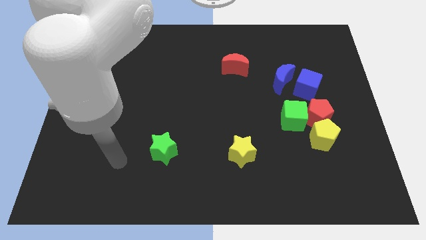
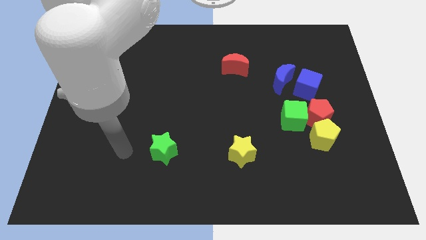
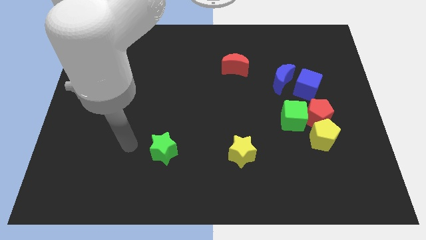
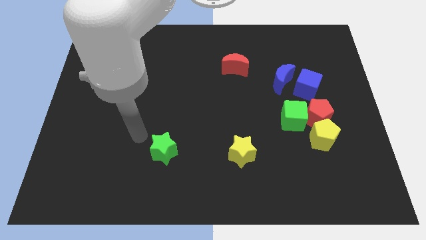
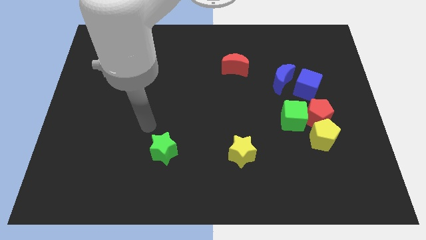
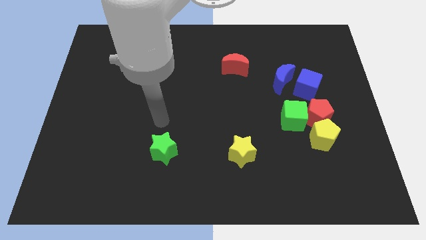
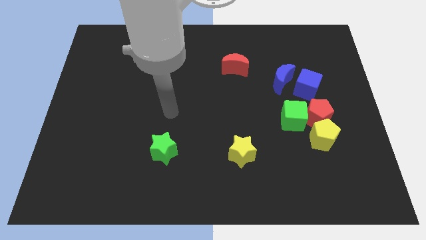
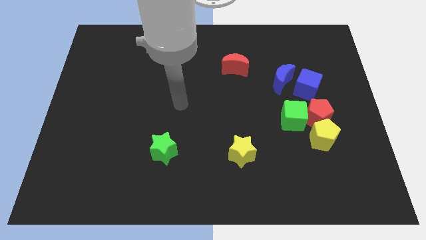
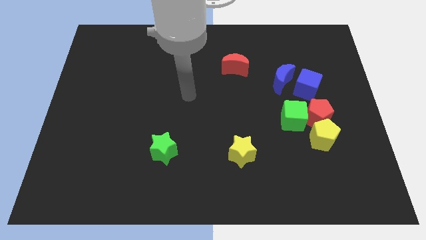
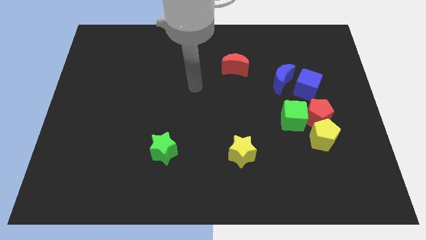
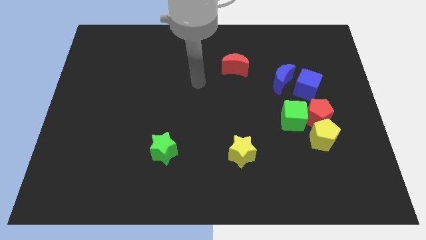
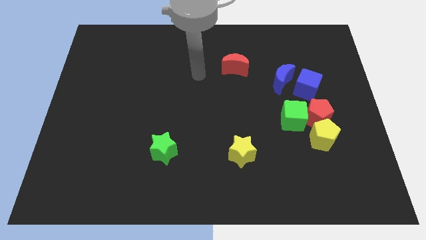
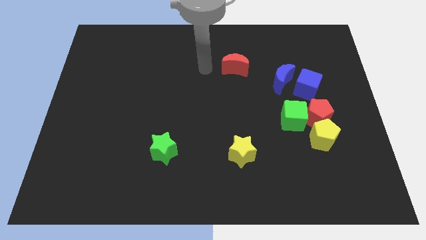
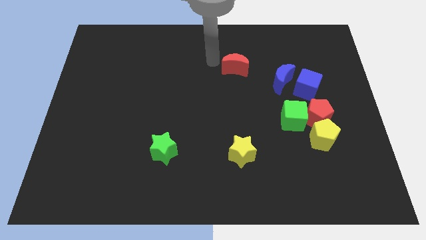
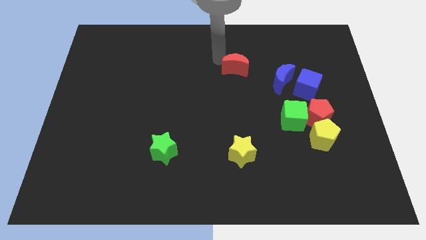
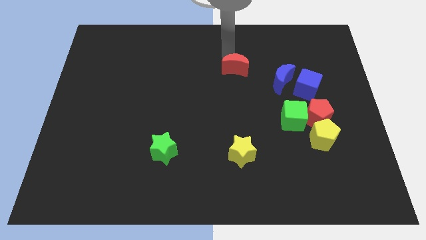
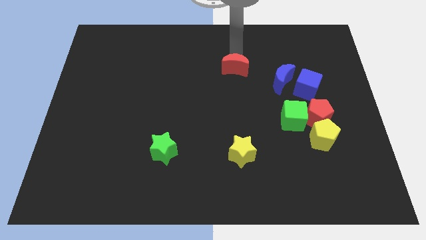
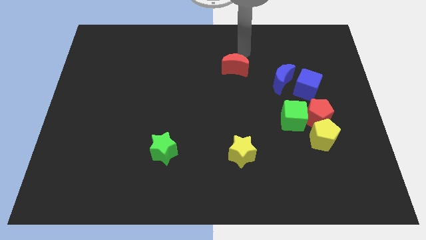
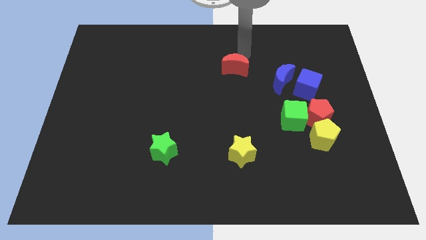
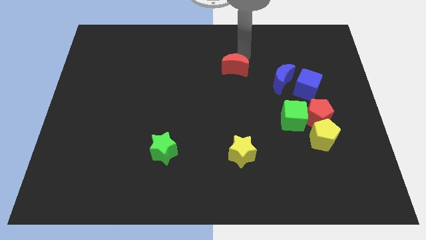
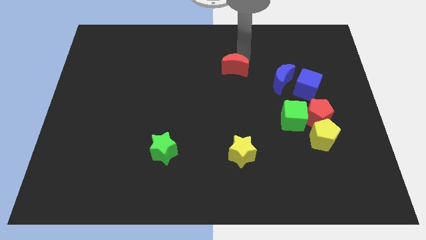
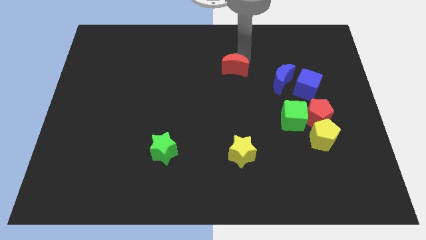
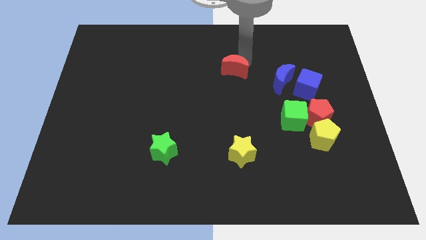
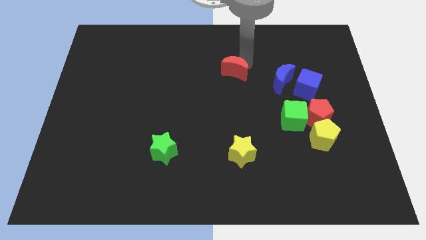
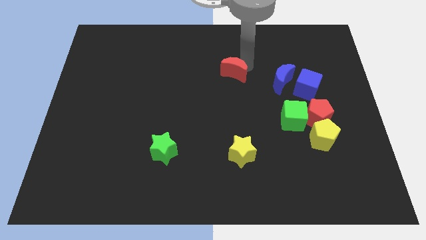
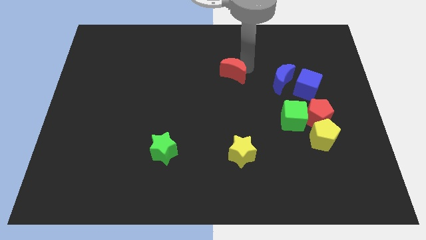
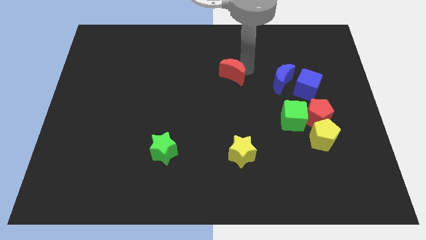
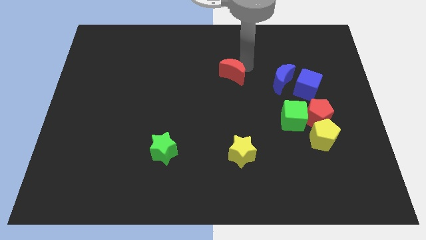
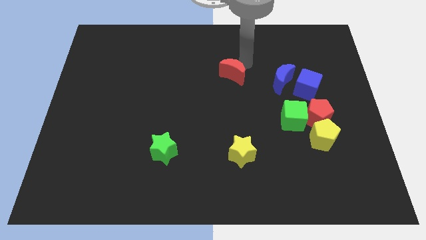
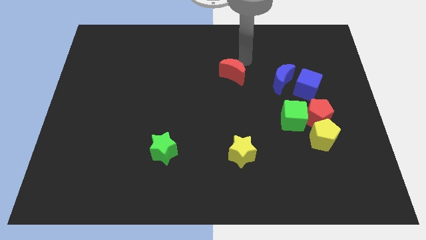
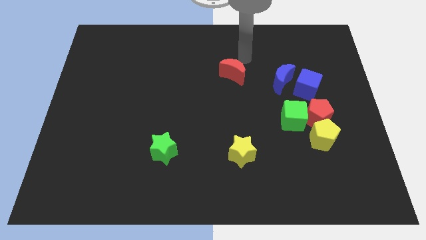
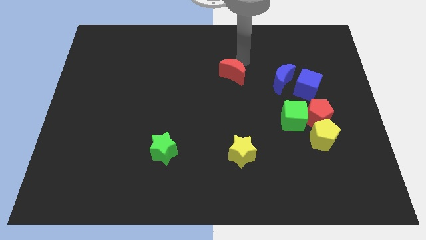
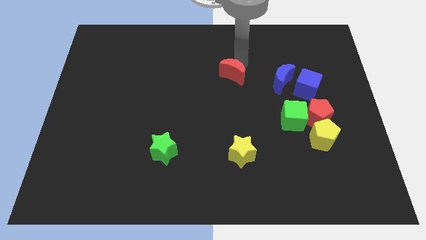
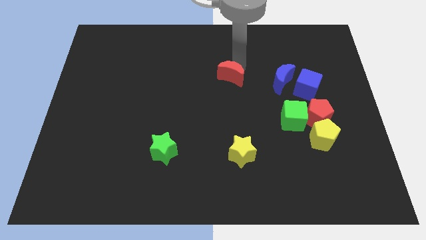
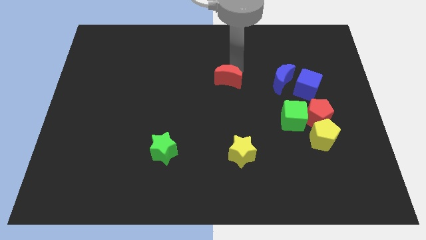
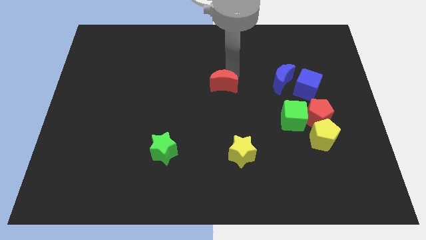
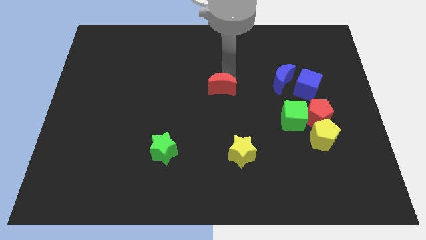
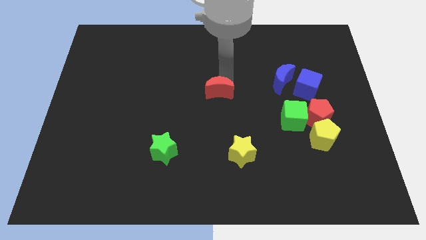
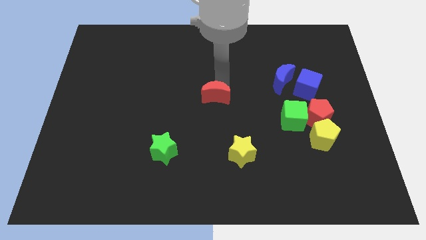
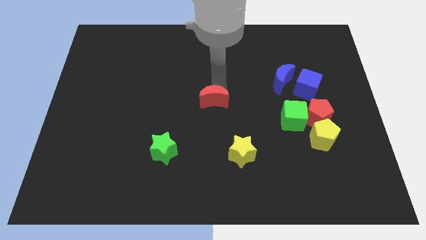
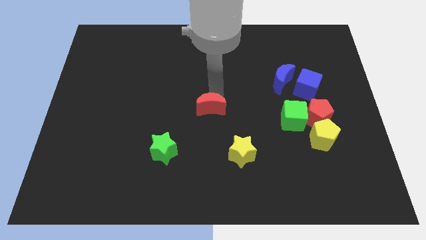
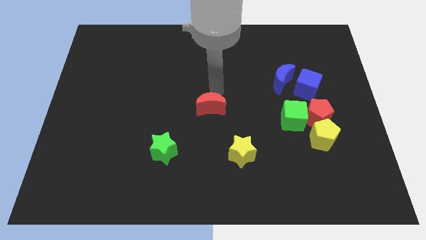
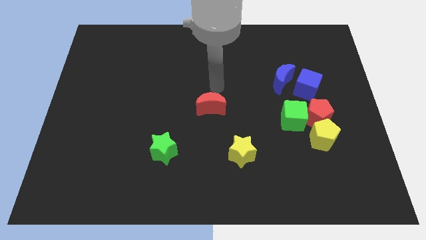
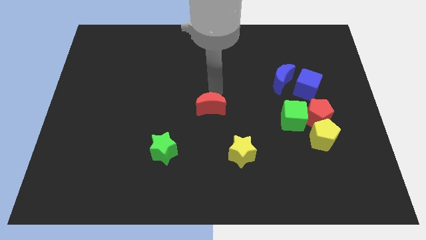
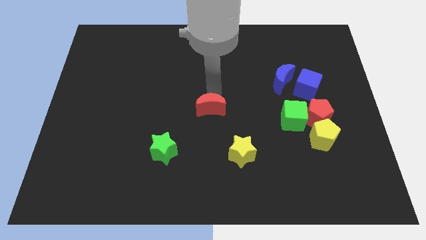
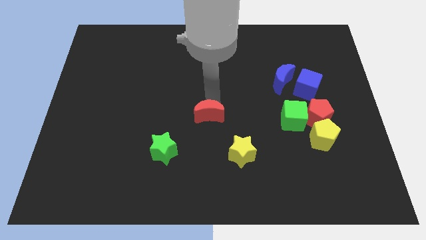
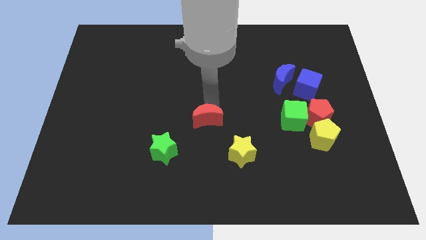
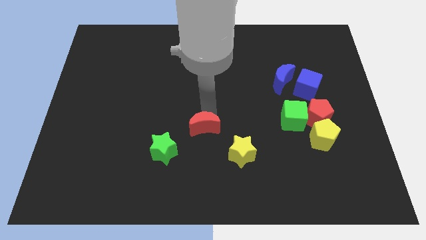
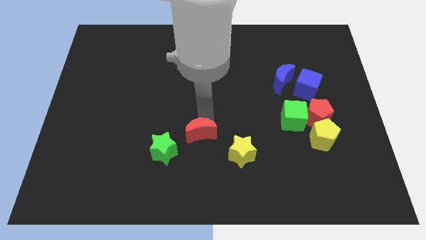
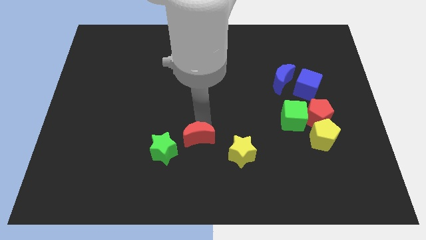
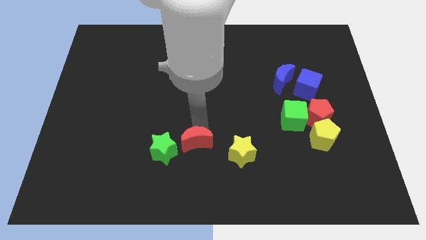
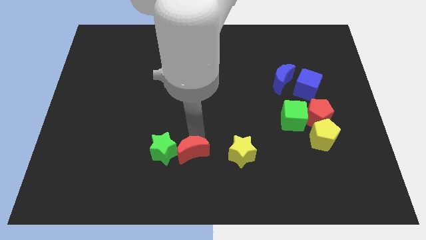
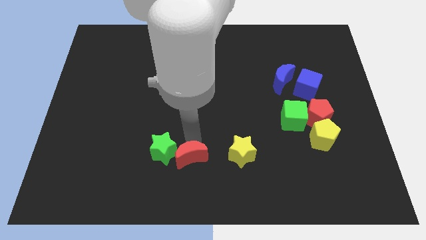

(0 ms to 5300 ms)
put the red moon to the bottom side

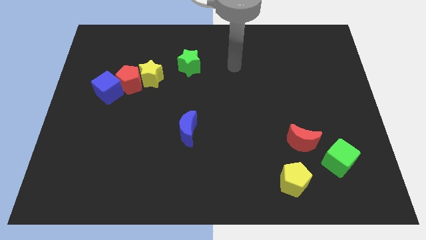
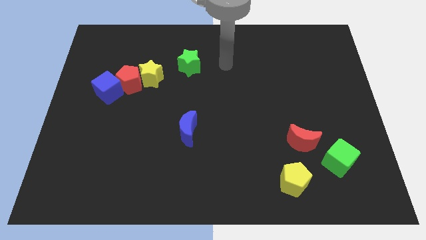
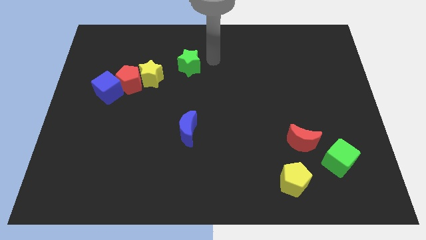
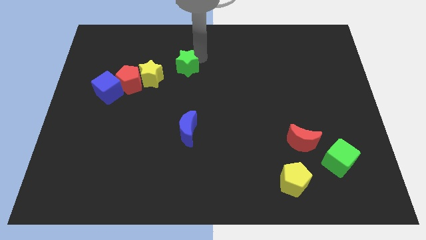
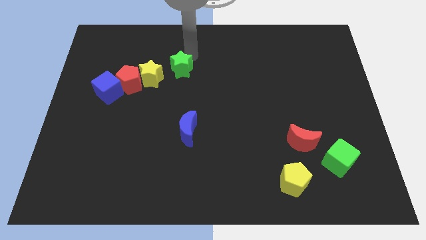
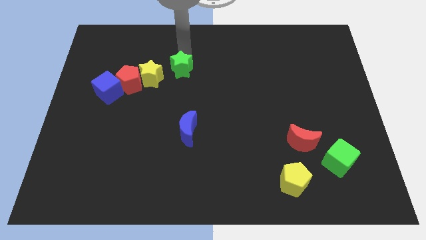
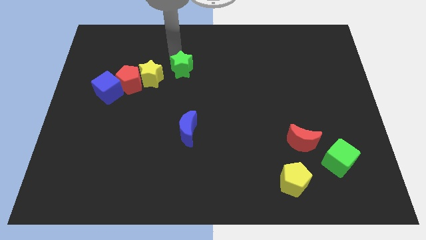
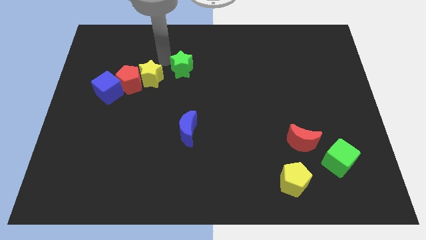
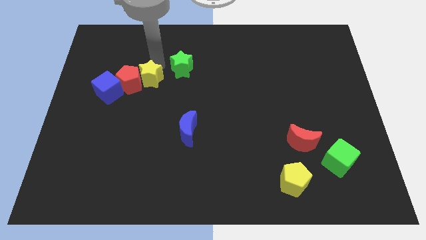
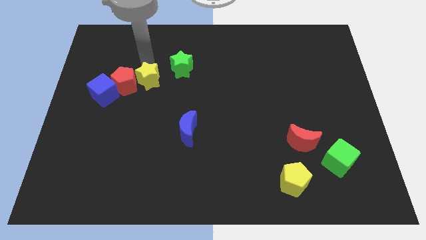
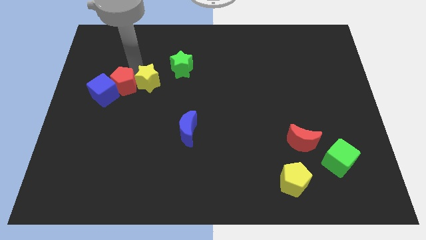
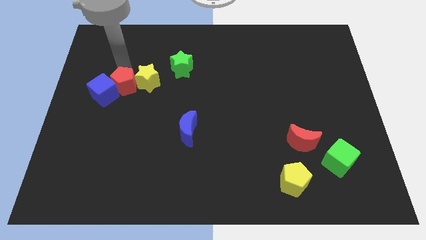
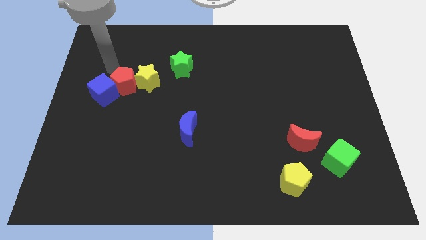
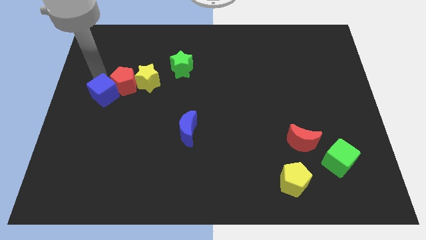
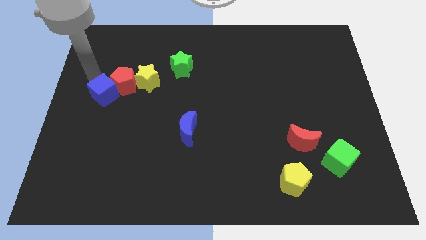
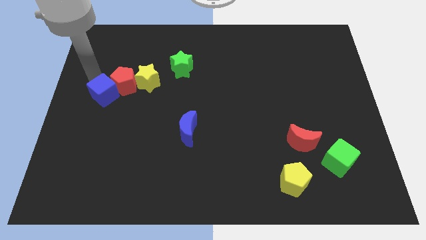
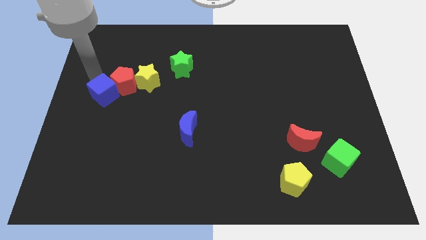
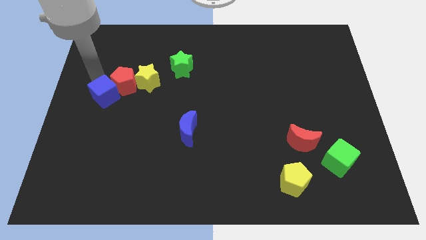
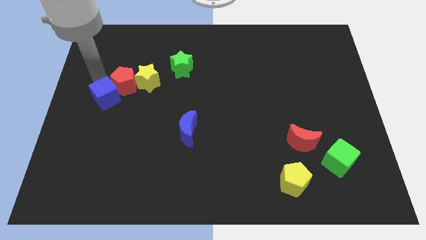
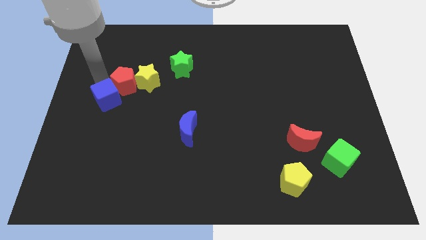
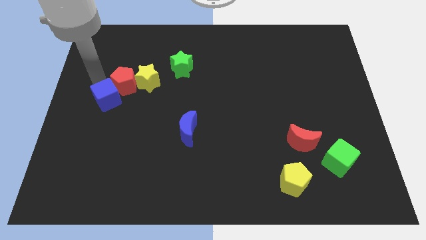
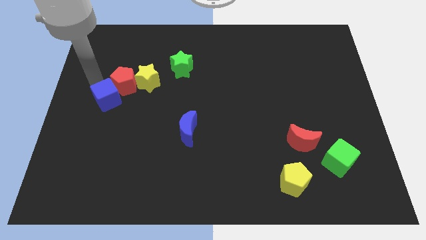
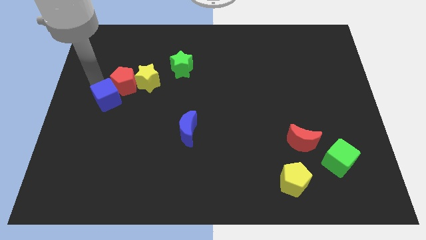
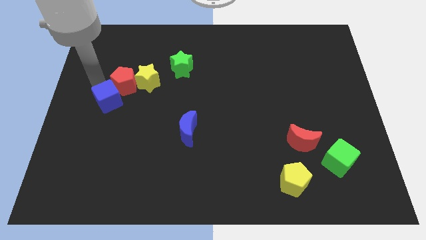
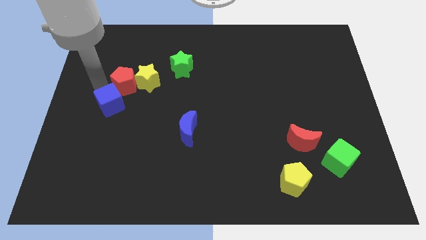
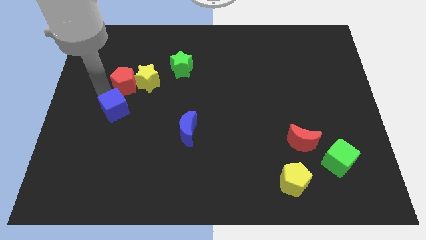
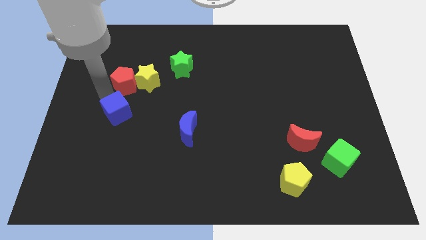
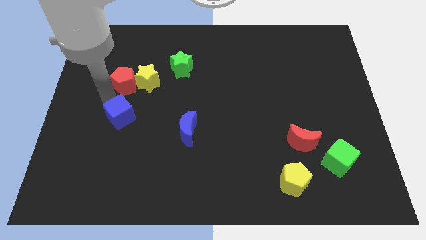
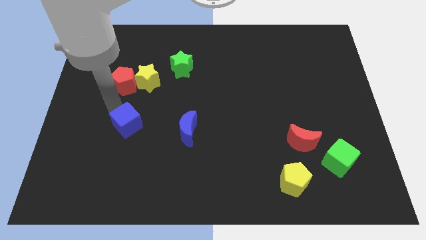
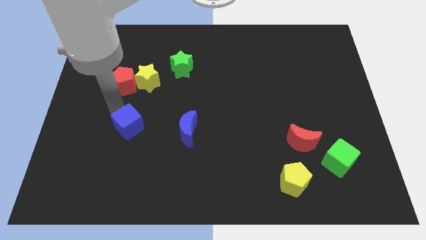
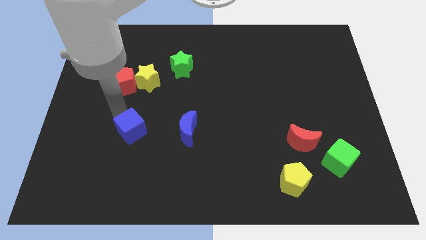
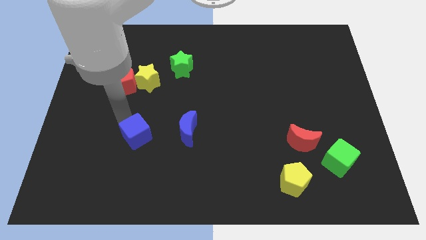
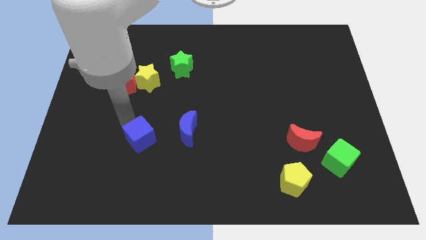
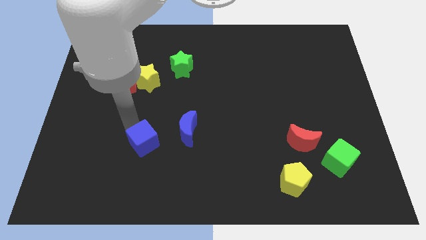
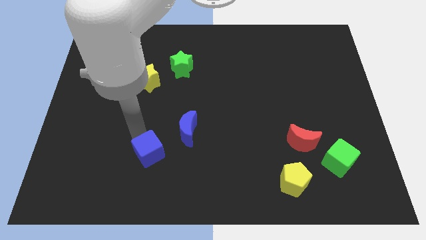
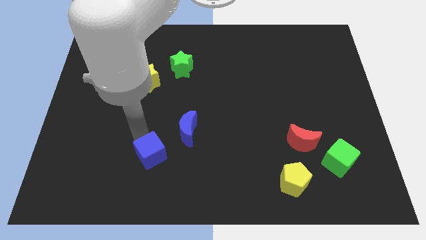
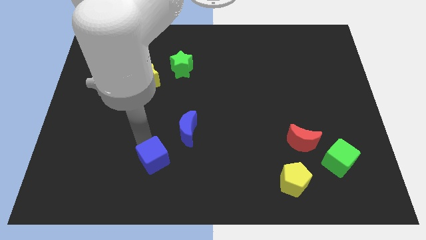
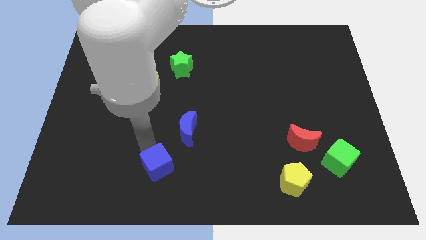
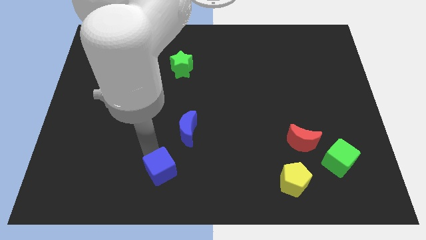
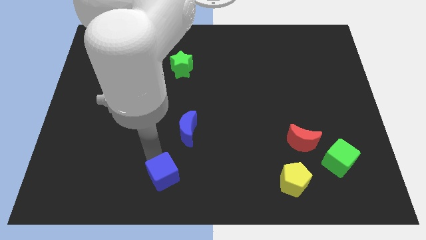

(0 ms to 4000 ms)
push the blue cube to the bottom
